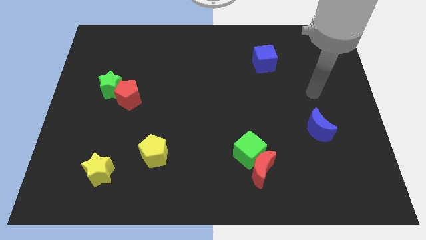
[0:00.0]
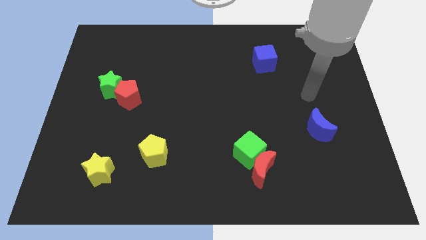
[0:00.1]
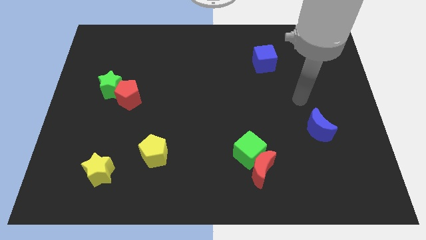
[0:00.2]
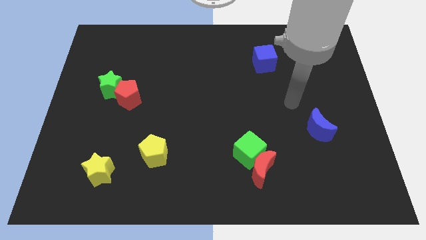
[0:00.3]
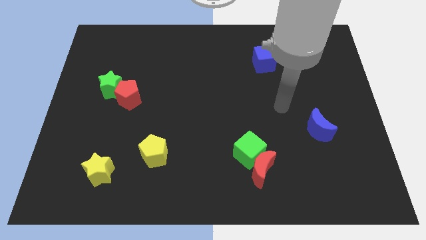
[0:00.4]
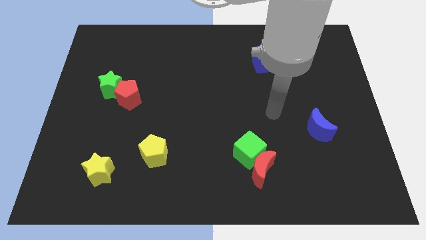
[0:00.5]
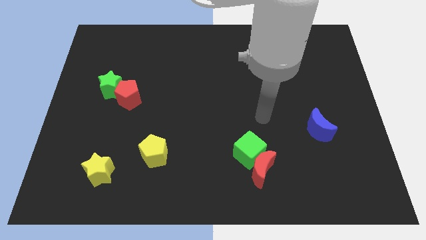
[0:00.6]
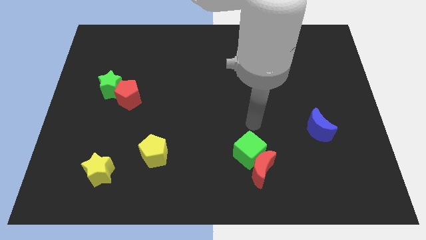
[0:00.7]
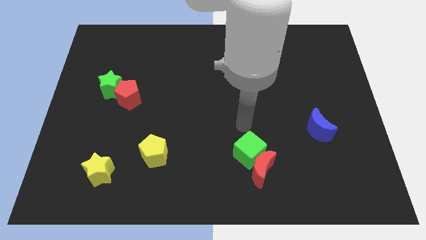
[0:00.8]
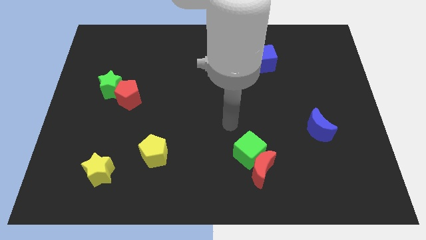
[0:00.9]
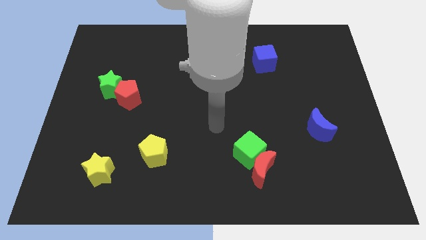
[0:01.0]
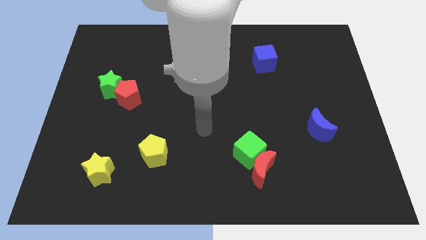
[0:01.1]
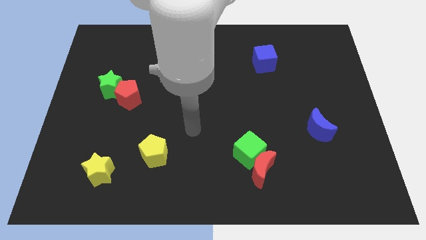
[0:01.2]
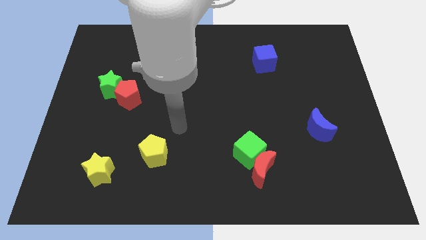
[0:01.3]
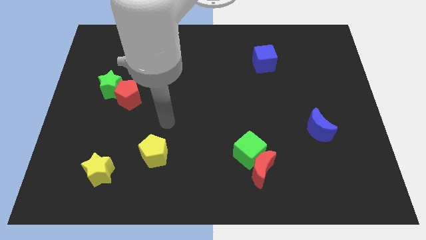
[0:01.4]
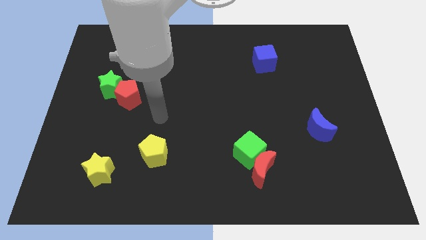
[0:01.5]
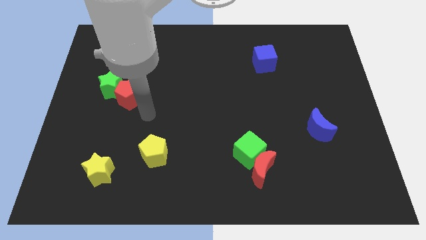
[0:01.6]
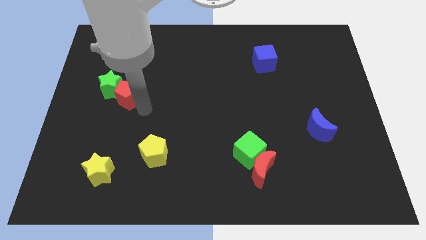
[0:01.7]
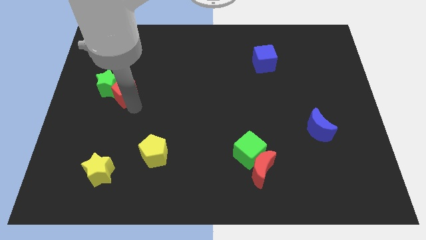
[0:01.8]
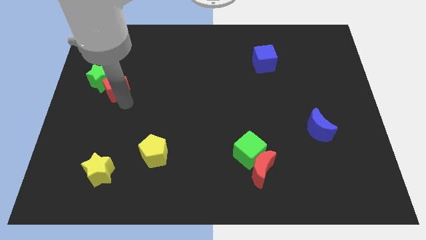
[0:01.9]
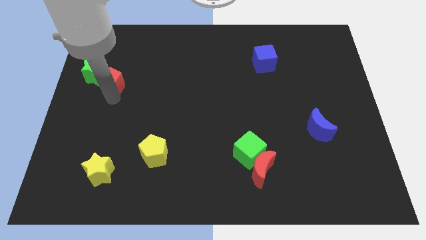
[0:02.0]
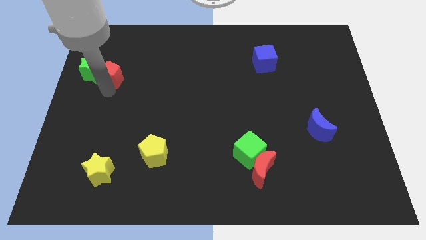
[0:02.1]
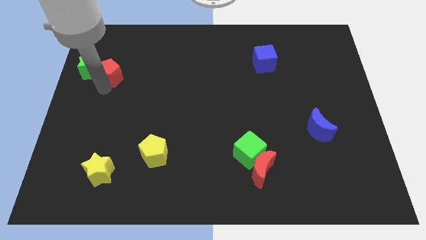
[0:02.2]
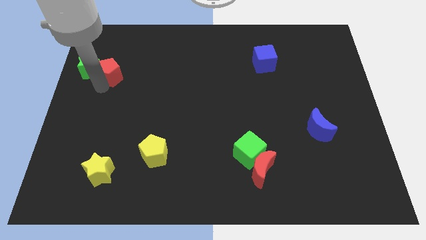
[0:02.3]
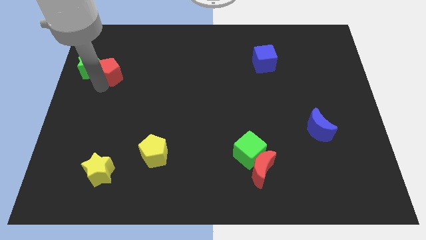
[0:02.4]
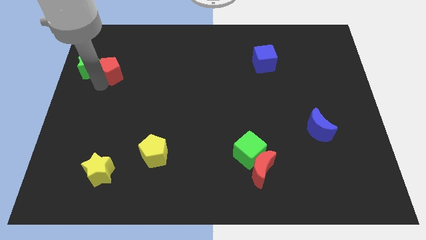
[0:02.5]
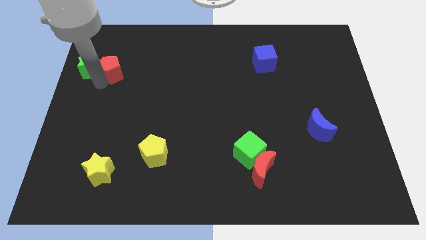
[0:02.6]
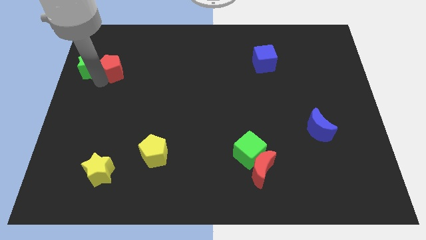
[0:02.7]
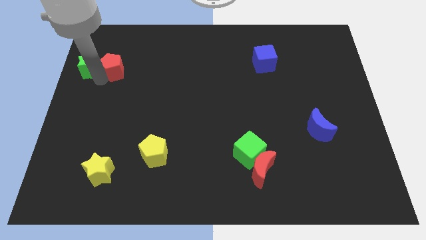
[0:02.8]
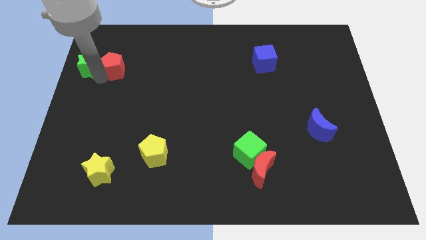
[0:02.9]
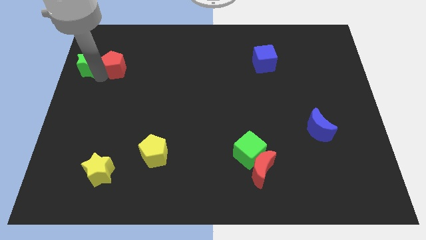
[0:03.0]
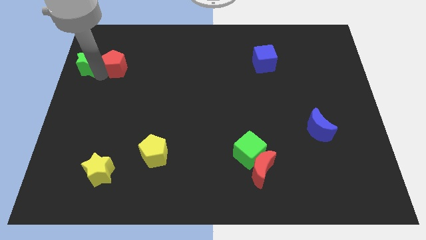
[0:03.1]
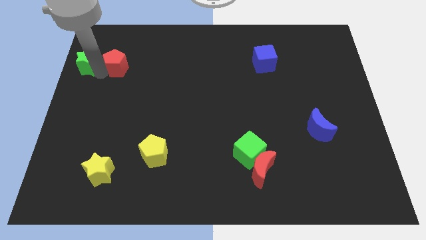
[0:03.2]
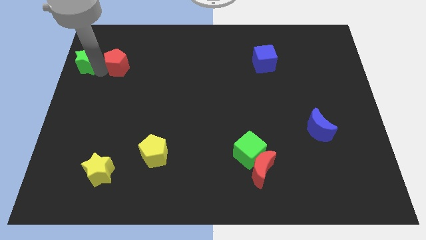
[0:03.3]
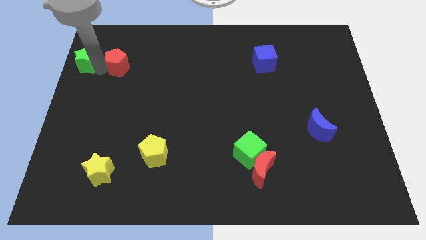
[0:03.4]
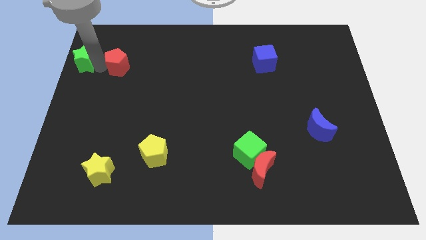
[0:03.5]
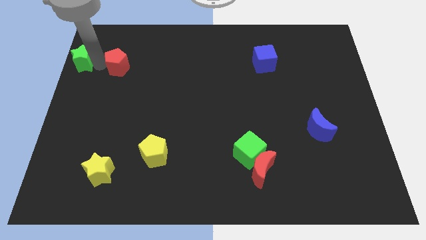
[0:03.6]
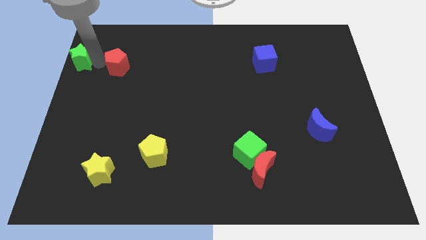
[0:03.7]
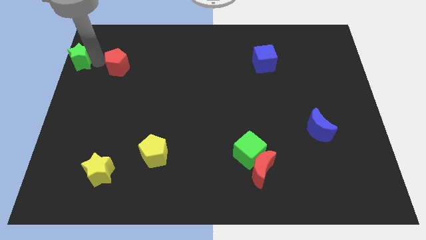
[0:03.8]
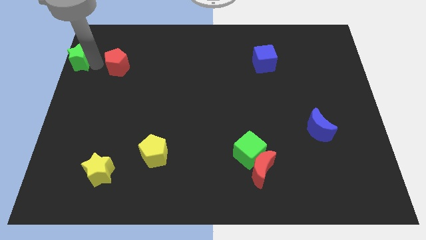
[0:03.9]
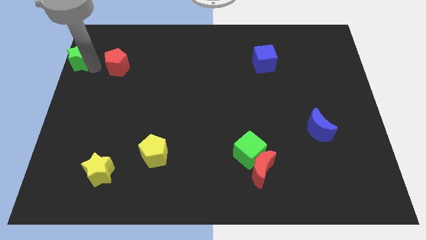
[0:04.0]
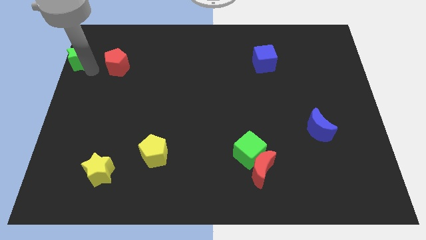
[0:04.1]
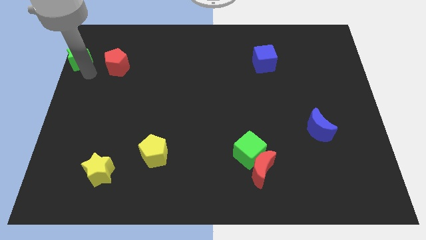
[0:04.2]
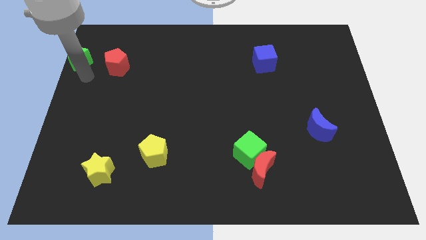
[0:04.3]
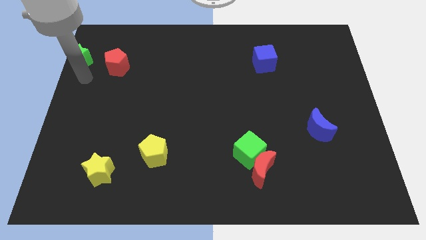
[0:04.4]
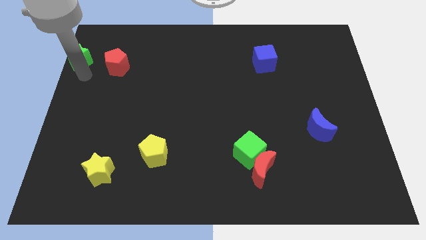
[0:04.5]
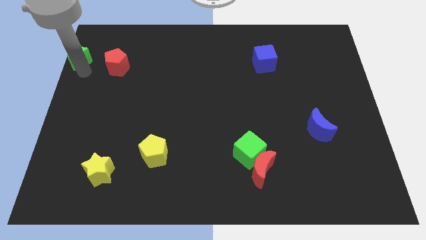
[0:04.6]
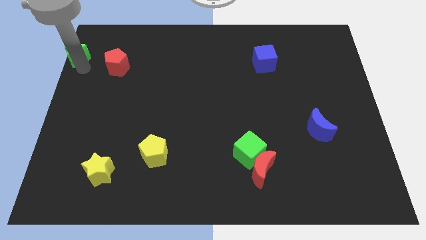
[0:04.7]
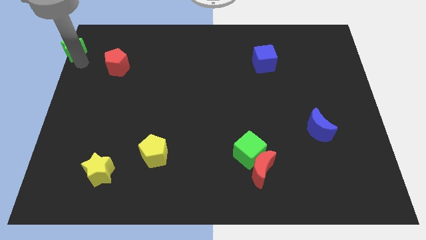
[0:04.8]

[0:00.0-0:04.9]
put the green star to the top left corner

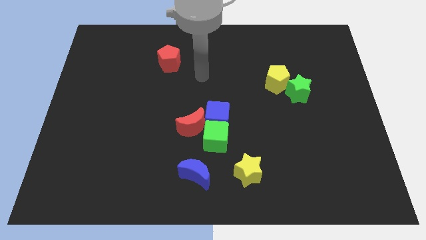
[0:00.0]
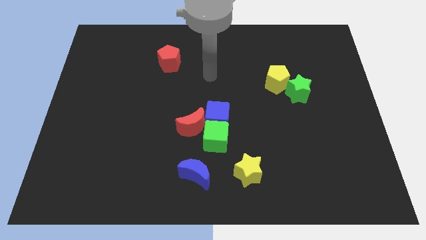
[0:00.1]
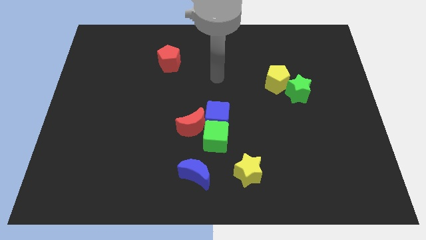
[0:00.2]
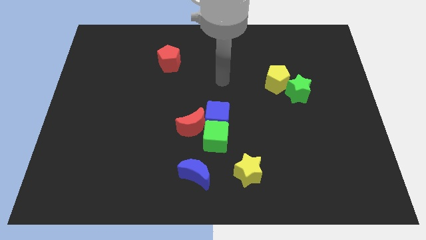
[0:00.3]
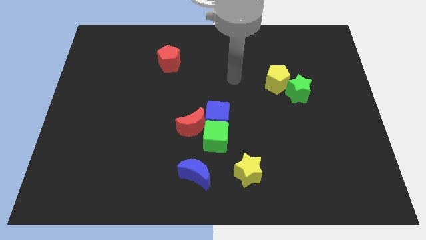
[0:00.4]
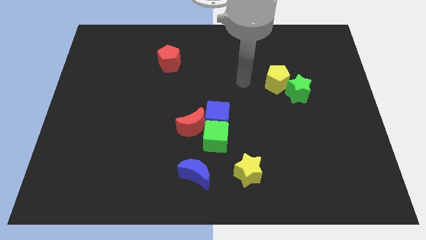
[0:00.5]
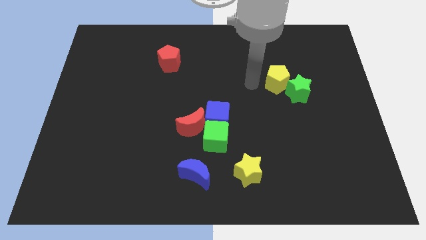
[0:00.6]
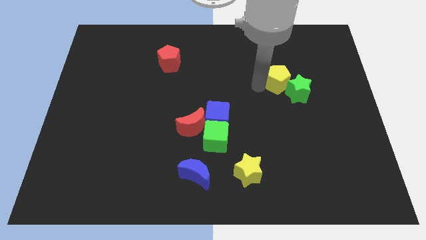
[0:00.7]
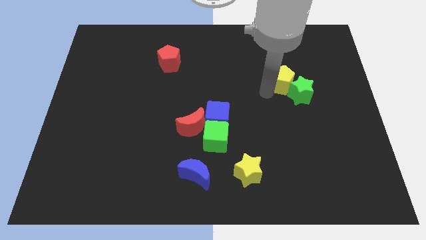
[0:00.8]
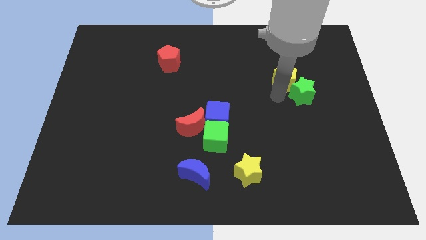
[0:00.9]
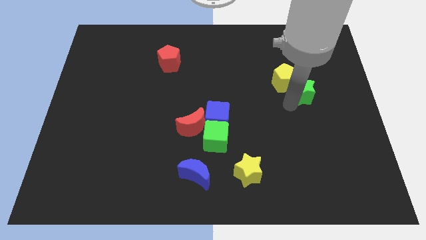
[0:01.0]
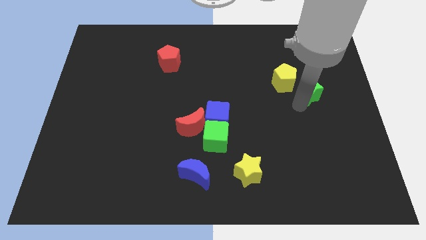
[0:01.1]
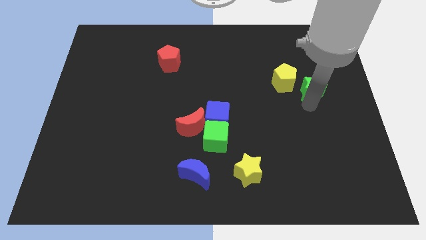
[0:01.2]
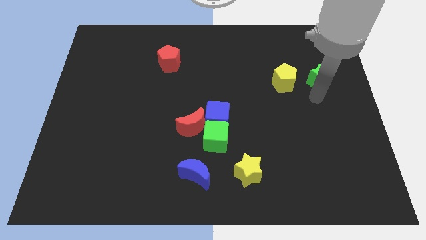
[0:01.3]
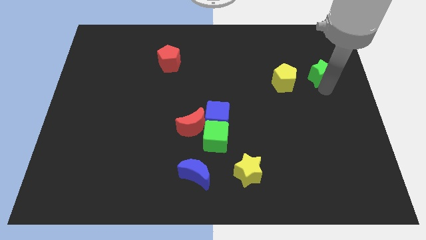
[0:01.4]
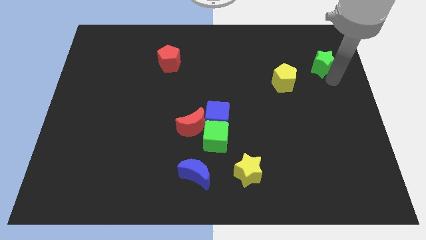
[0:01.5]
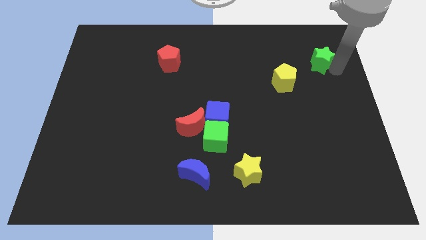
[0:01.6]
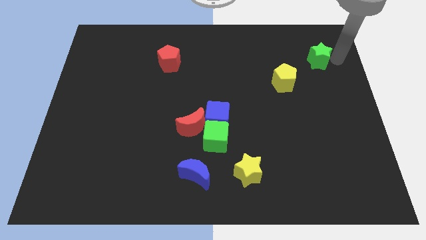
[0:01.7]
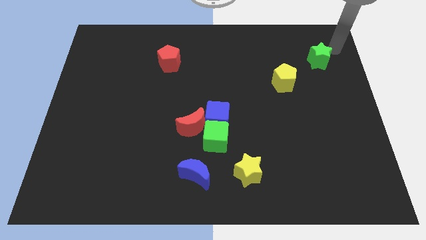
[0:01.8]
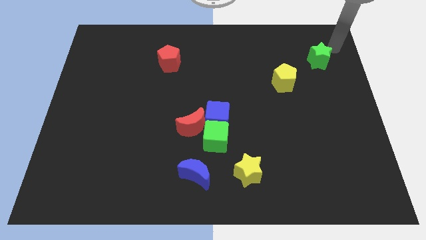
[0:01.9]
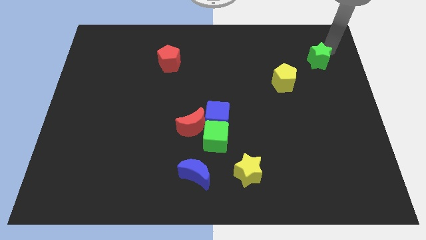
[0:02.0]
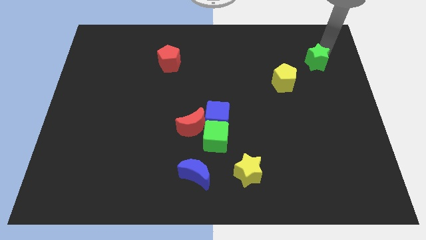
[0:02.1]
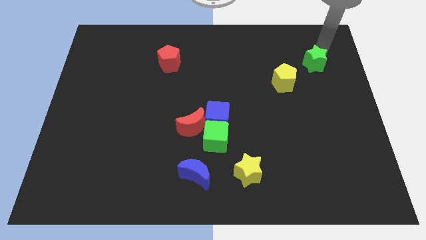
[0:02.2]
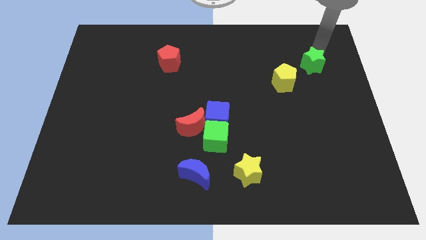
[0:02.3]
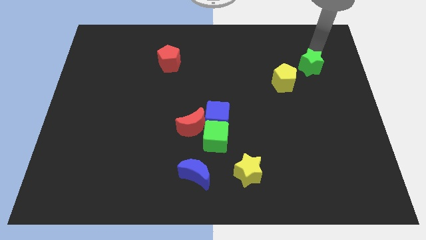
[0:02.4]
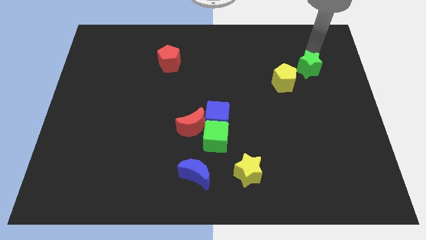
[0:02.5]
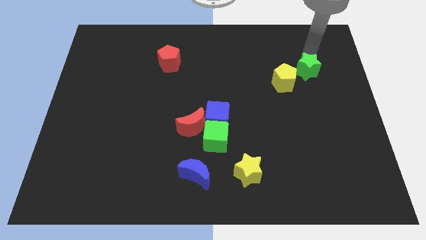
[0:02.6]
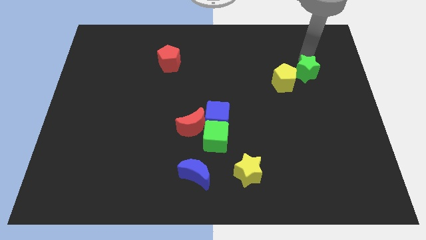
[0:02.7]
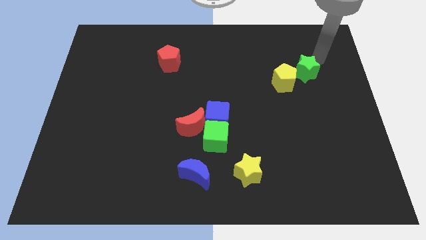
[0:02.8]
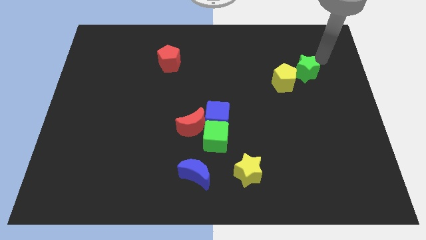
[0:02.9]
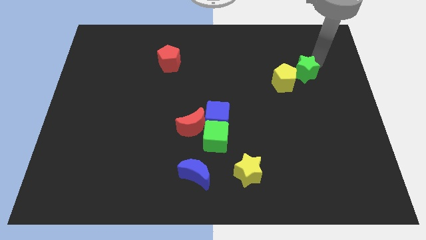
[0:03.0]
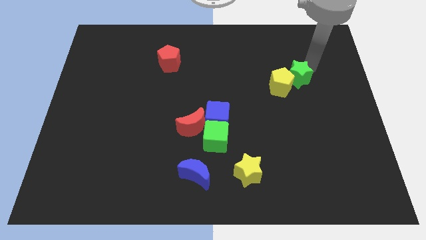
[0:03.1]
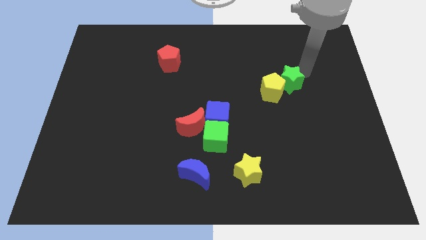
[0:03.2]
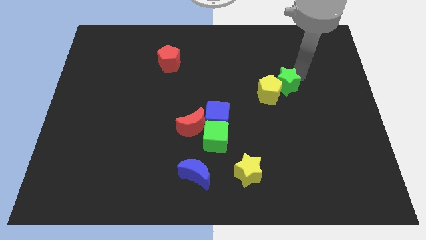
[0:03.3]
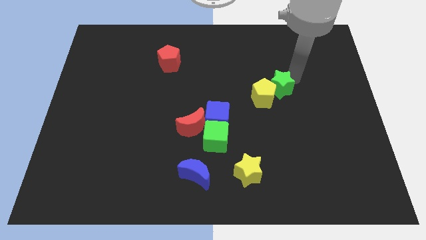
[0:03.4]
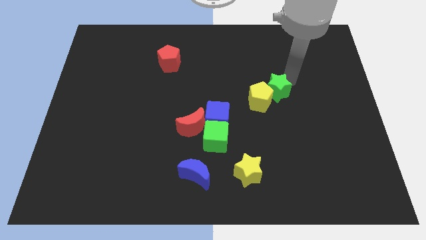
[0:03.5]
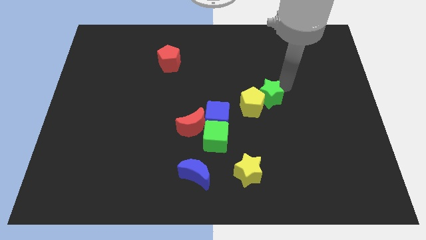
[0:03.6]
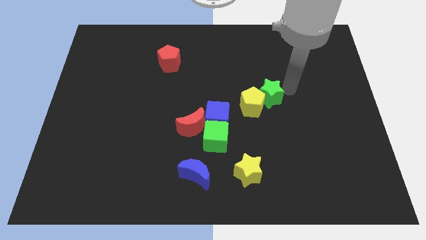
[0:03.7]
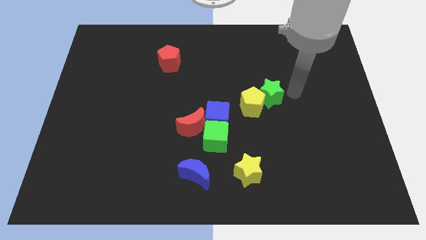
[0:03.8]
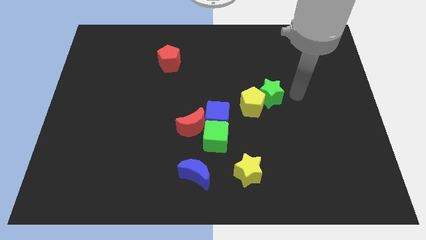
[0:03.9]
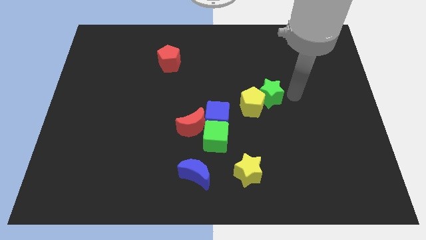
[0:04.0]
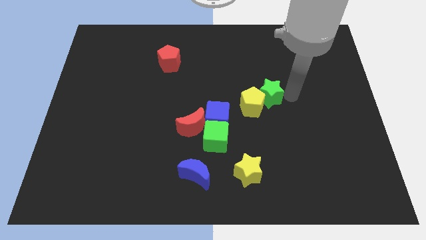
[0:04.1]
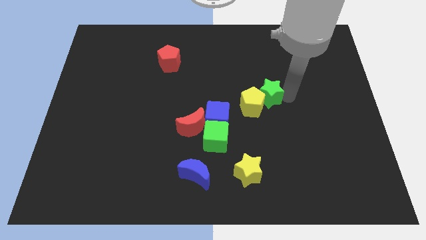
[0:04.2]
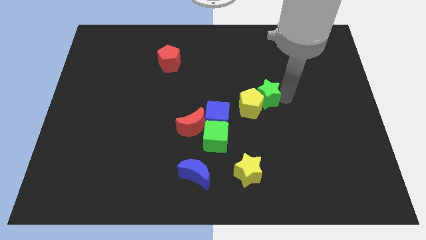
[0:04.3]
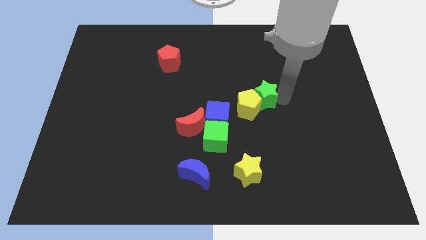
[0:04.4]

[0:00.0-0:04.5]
push the green star to the middle
